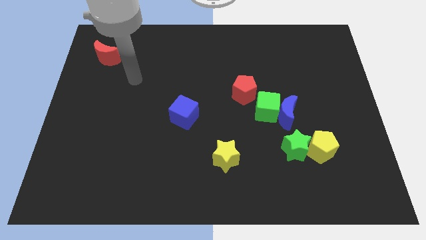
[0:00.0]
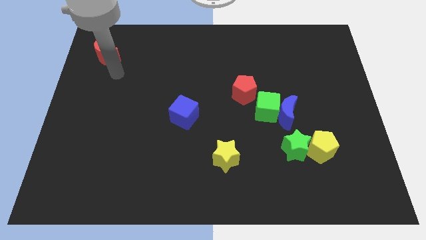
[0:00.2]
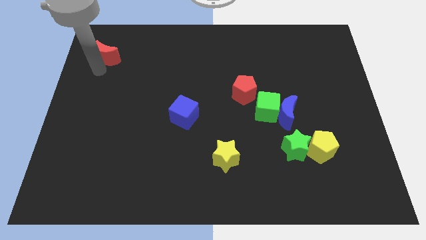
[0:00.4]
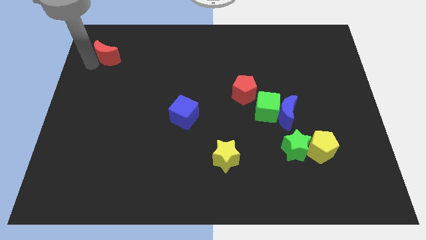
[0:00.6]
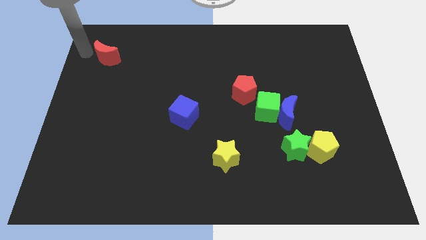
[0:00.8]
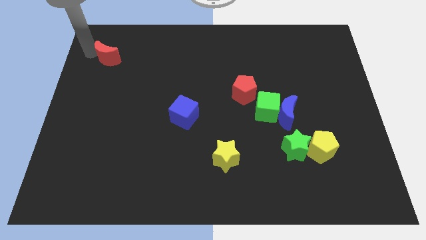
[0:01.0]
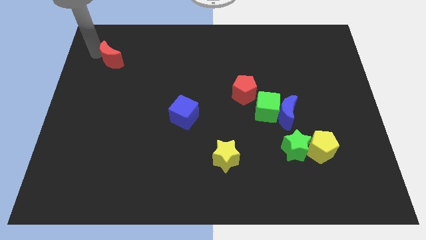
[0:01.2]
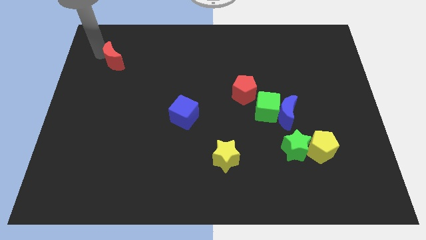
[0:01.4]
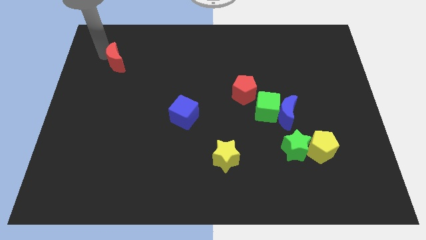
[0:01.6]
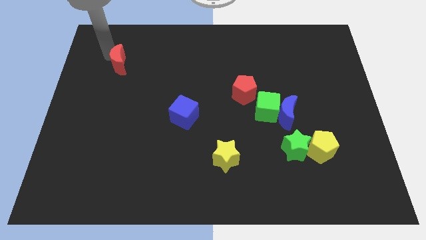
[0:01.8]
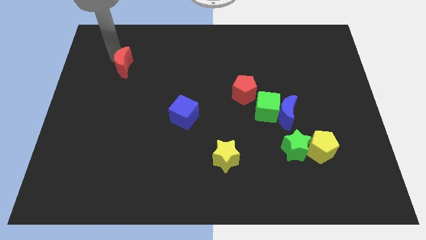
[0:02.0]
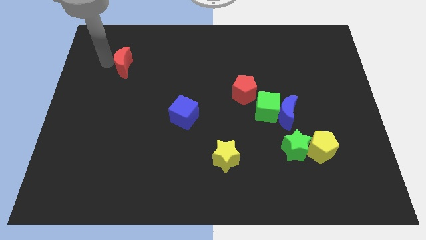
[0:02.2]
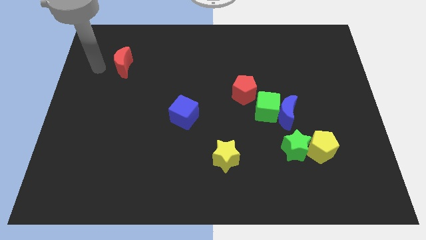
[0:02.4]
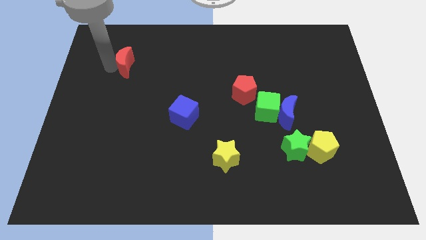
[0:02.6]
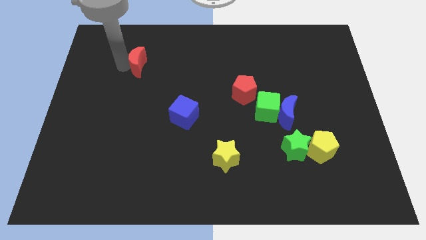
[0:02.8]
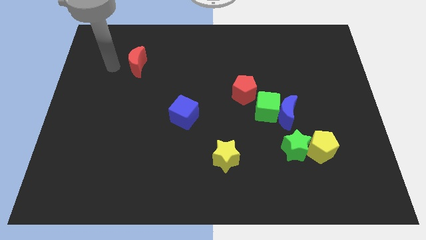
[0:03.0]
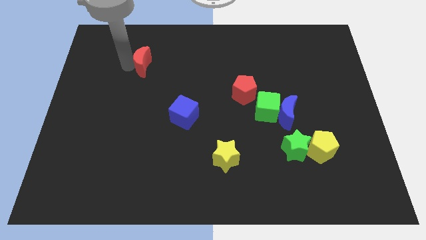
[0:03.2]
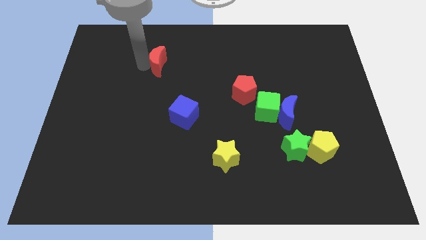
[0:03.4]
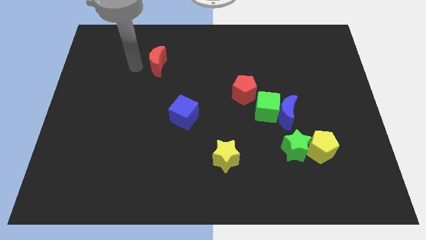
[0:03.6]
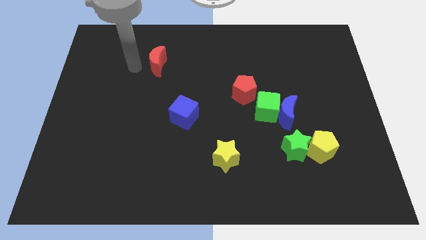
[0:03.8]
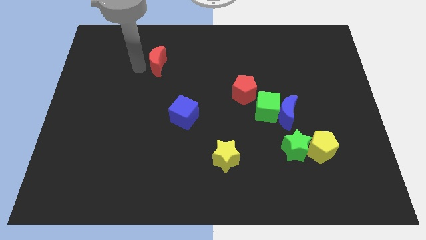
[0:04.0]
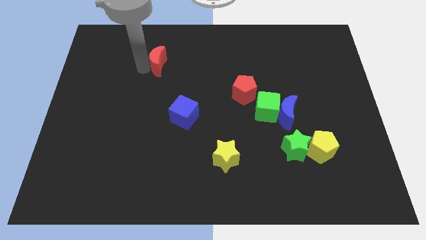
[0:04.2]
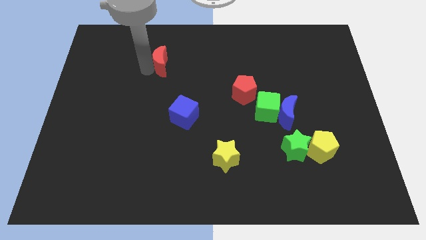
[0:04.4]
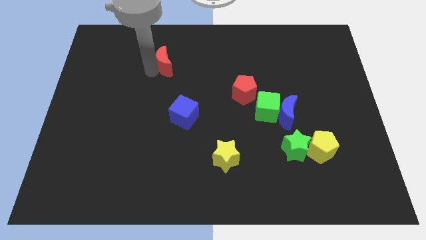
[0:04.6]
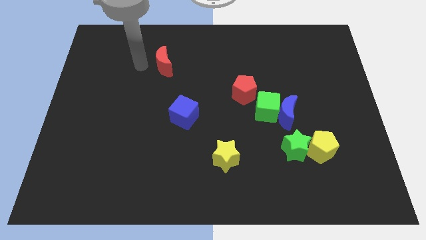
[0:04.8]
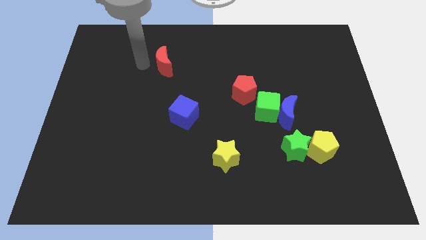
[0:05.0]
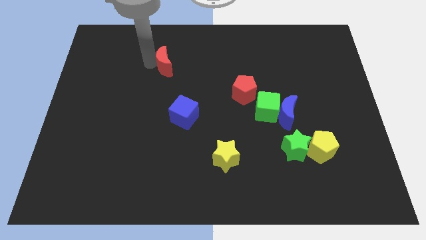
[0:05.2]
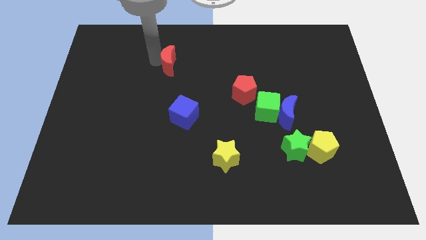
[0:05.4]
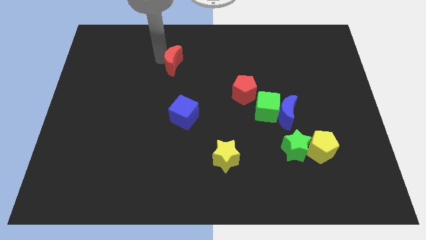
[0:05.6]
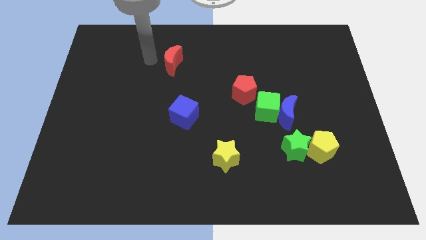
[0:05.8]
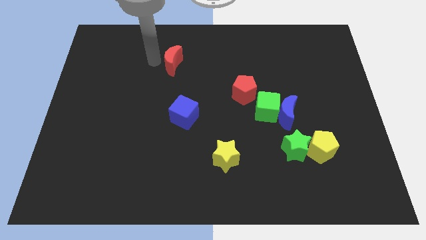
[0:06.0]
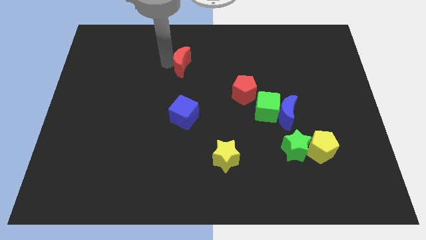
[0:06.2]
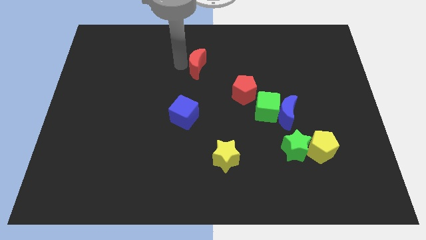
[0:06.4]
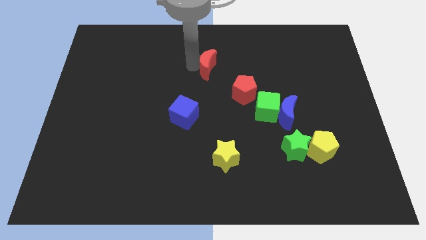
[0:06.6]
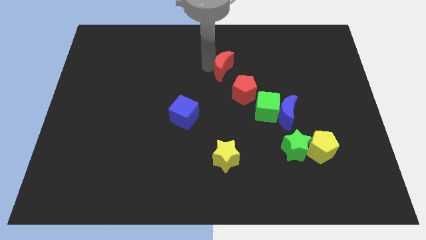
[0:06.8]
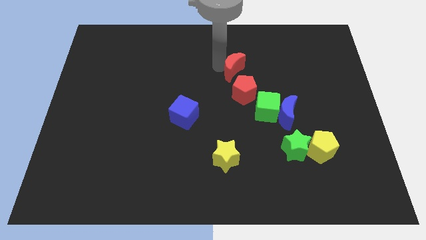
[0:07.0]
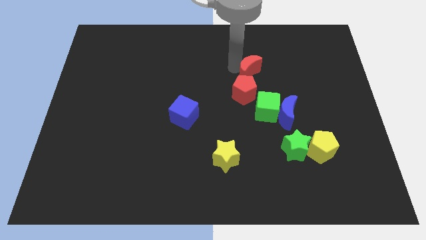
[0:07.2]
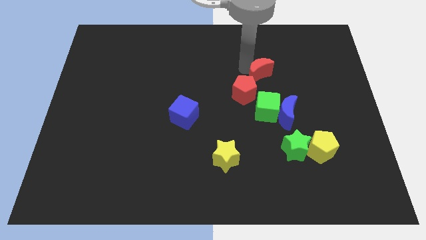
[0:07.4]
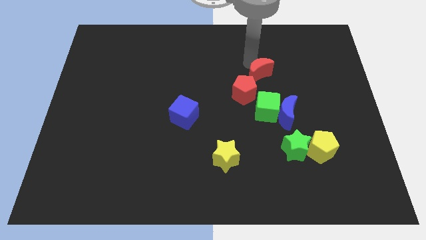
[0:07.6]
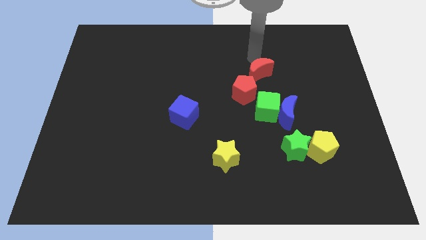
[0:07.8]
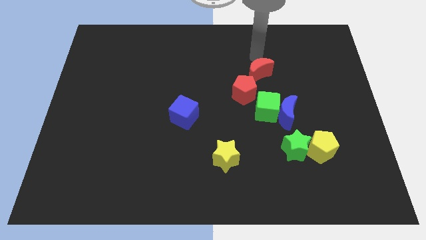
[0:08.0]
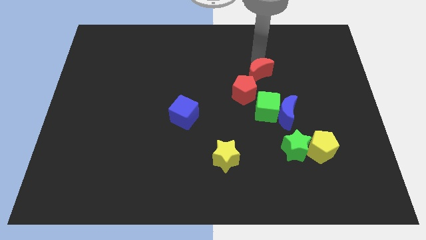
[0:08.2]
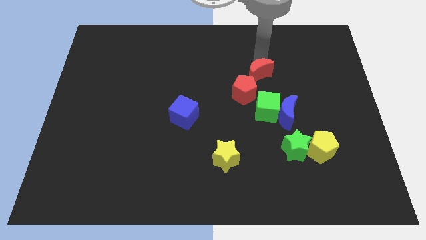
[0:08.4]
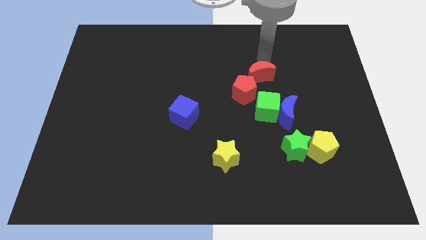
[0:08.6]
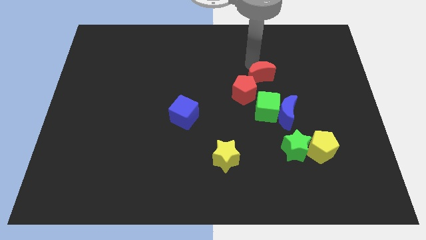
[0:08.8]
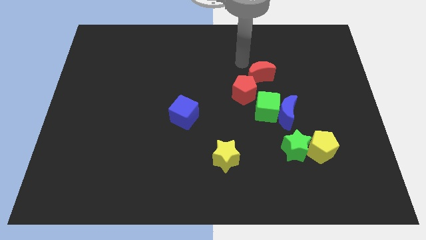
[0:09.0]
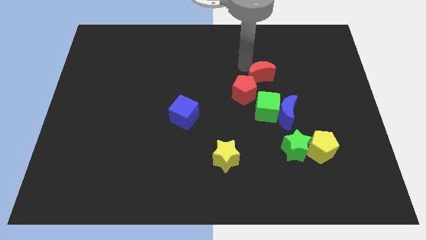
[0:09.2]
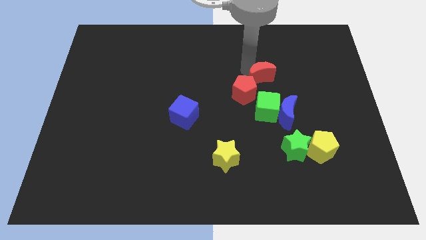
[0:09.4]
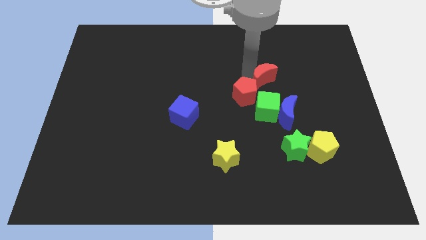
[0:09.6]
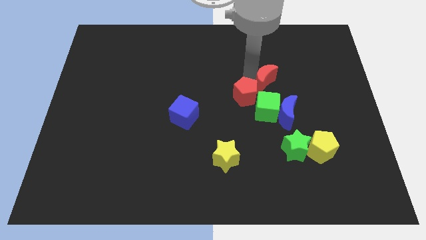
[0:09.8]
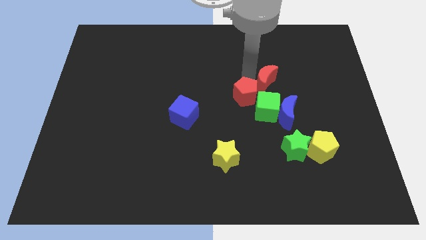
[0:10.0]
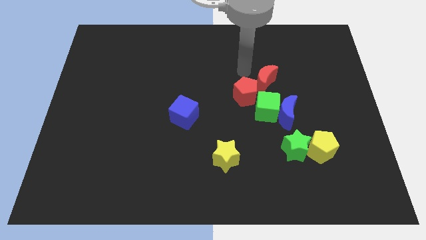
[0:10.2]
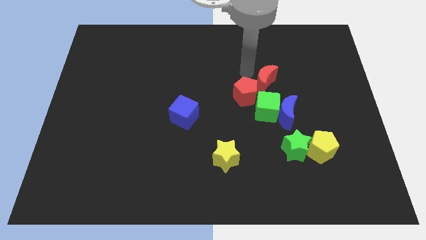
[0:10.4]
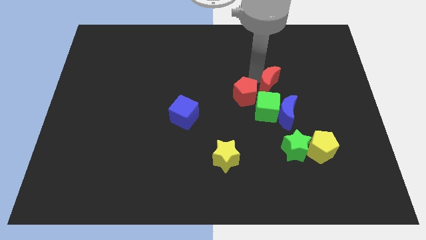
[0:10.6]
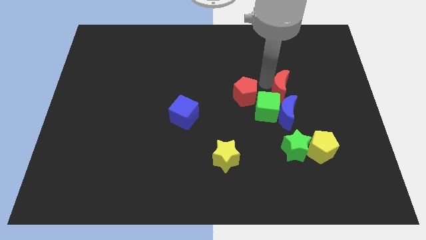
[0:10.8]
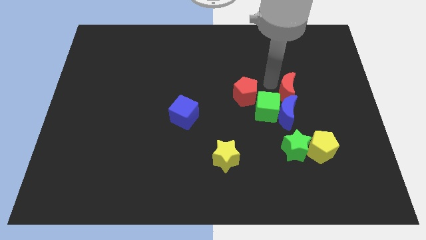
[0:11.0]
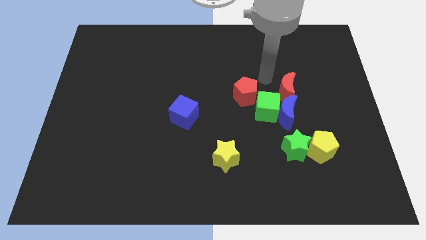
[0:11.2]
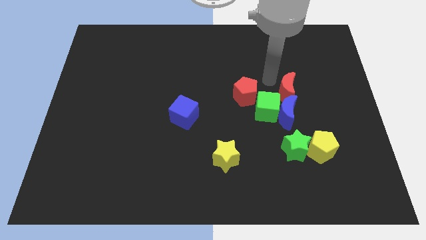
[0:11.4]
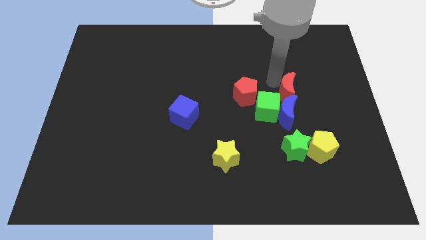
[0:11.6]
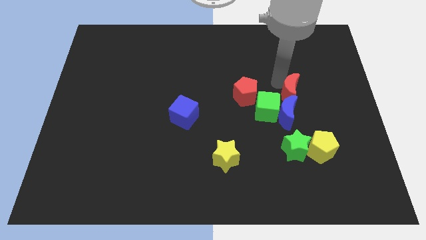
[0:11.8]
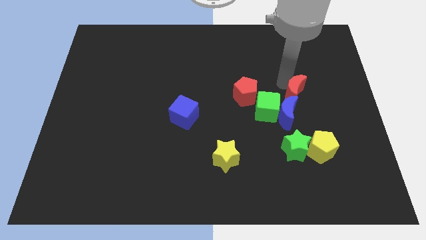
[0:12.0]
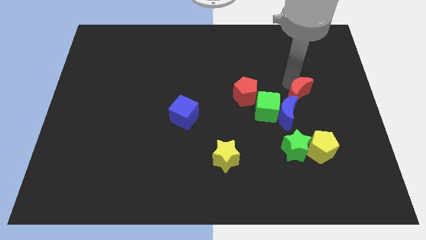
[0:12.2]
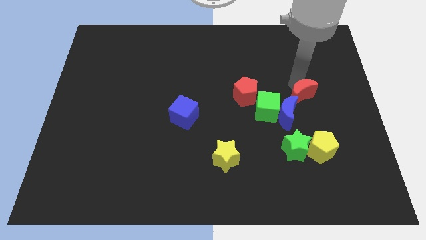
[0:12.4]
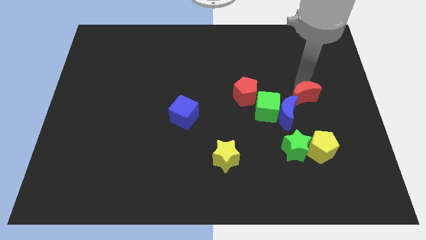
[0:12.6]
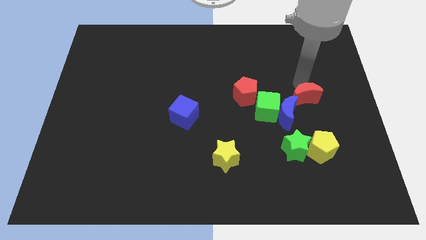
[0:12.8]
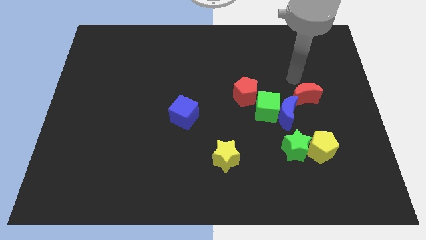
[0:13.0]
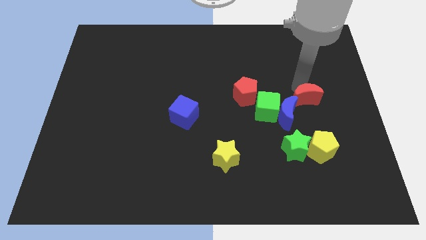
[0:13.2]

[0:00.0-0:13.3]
move the red moon right of the blue moon
